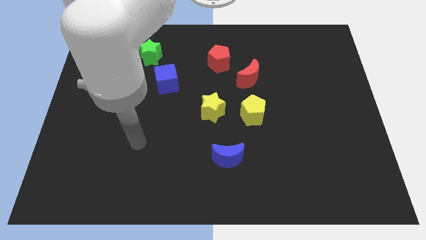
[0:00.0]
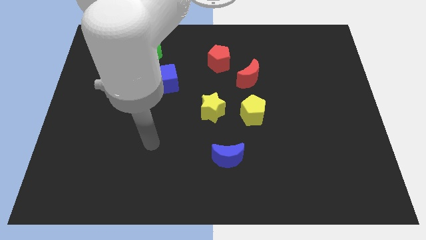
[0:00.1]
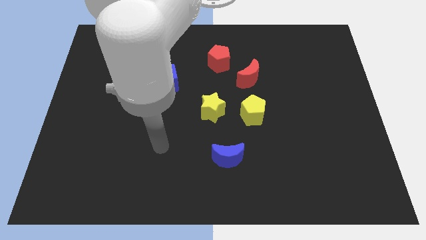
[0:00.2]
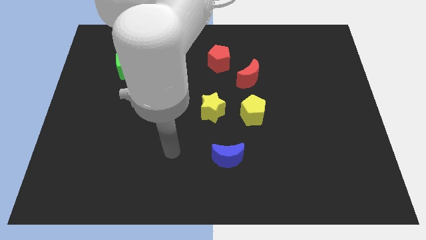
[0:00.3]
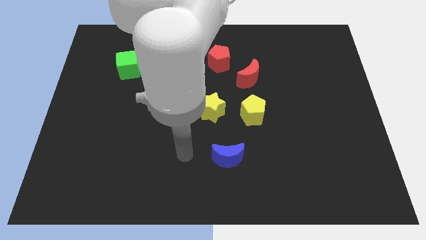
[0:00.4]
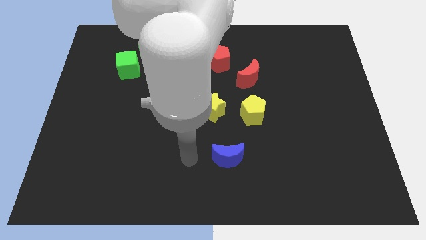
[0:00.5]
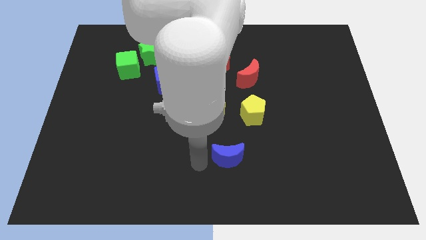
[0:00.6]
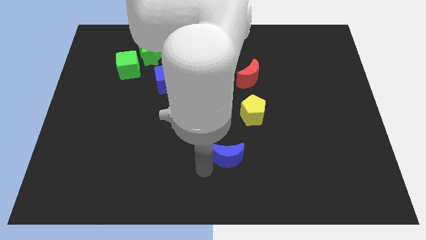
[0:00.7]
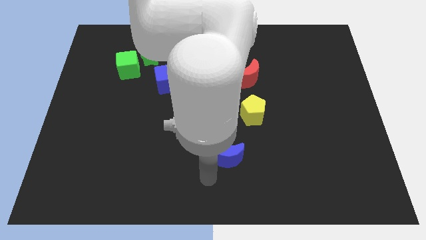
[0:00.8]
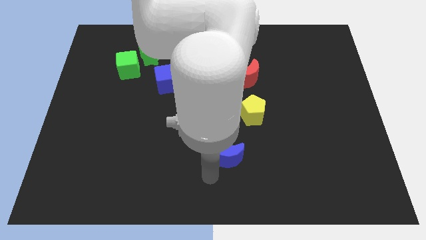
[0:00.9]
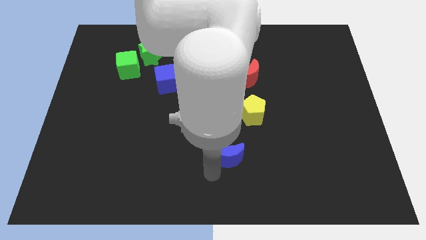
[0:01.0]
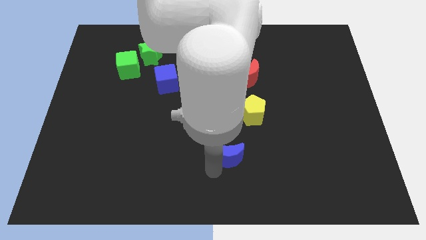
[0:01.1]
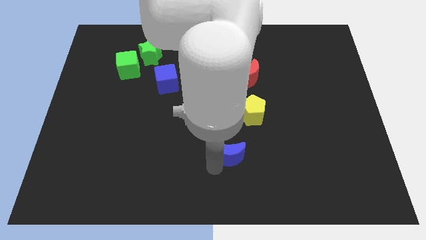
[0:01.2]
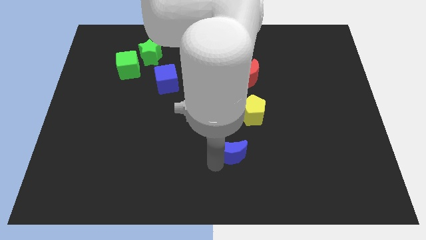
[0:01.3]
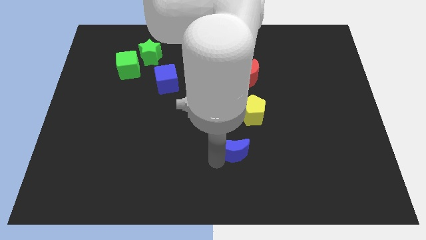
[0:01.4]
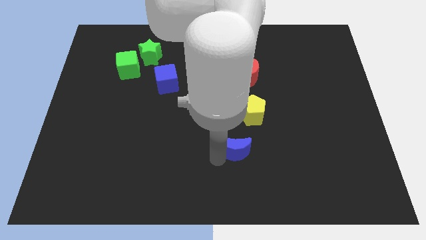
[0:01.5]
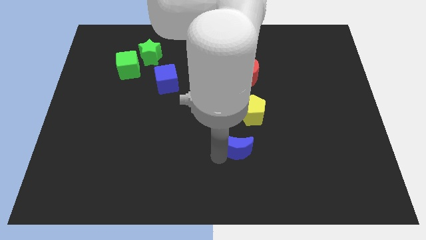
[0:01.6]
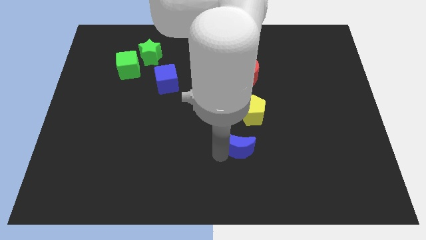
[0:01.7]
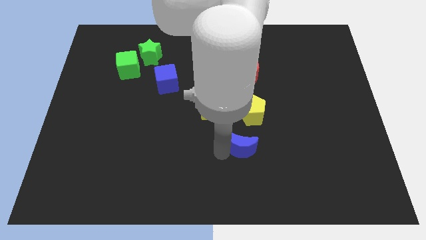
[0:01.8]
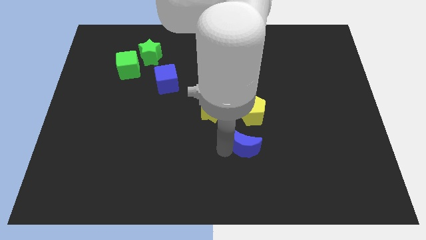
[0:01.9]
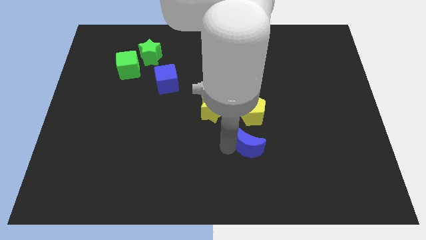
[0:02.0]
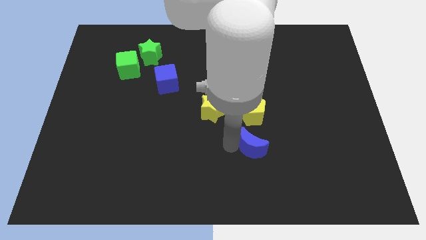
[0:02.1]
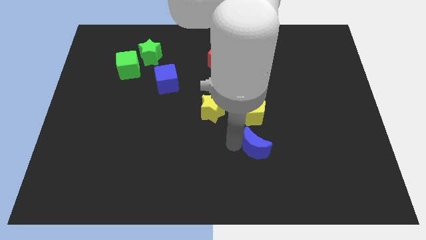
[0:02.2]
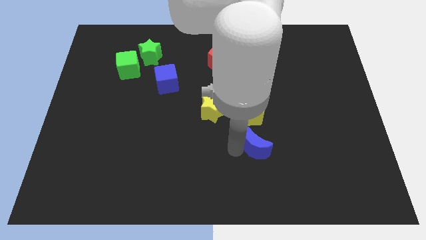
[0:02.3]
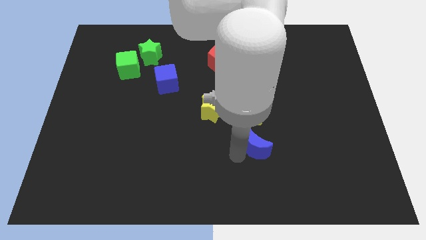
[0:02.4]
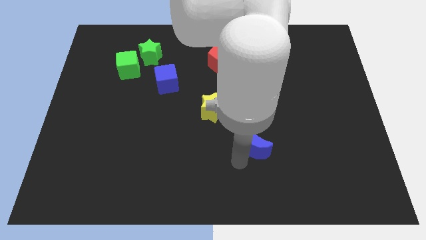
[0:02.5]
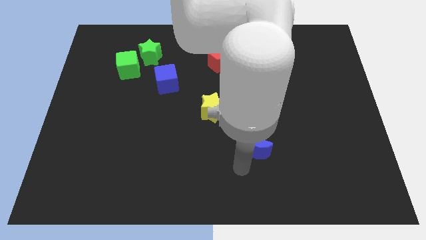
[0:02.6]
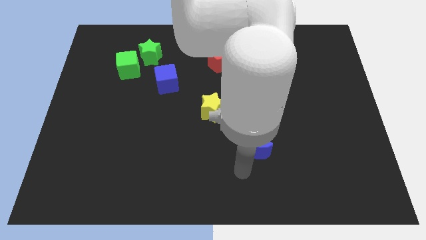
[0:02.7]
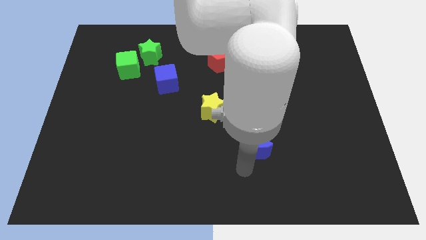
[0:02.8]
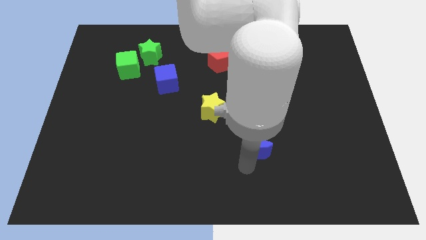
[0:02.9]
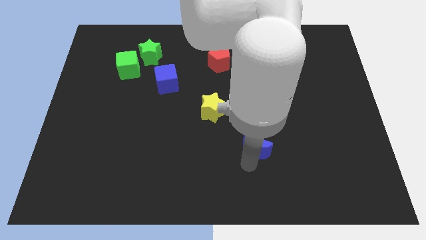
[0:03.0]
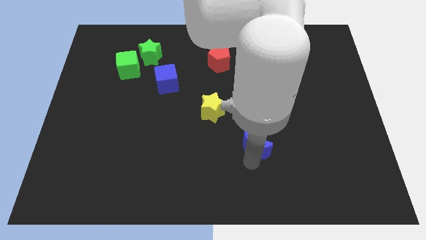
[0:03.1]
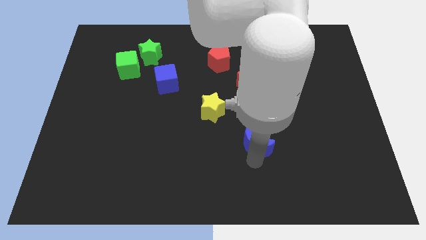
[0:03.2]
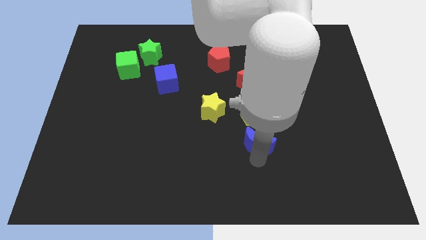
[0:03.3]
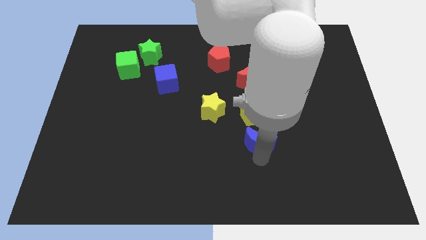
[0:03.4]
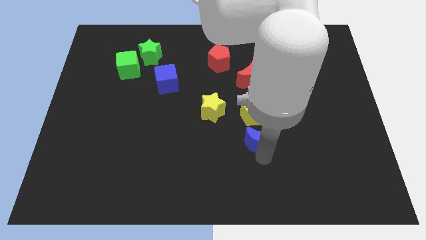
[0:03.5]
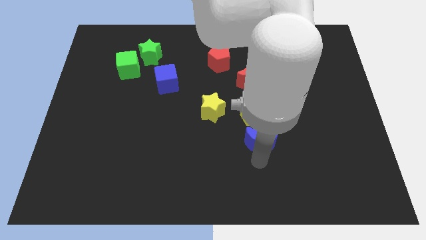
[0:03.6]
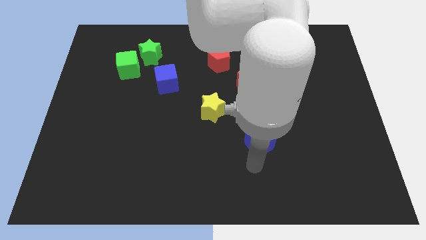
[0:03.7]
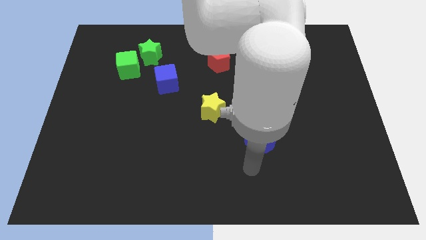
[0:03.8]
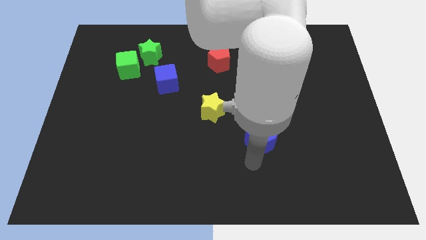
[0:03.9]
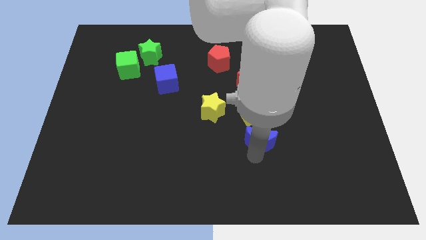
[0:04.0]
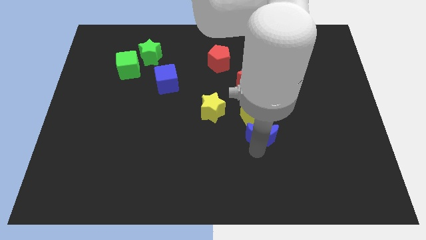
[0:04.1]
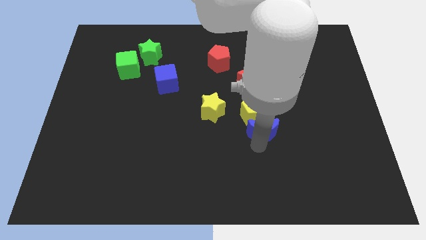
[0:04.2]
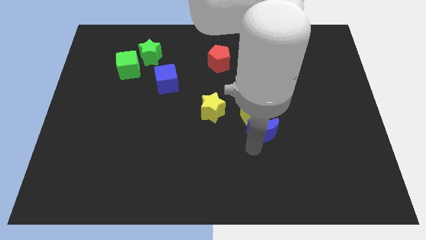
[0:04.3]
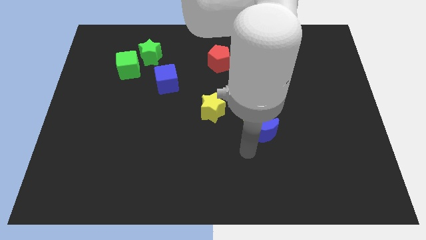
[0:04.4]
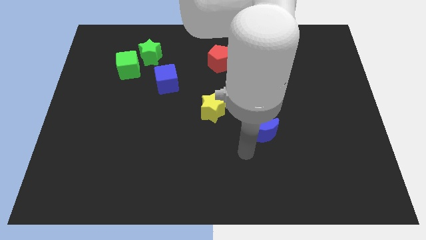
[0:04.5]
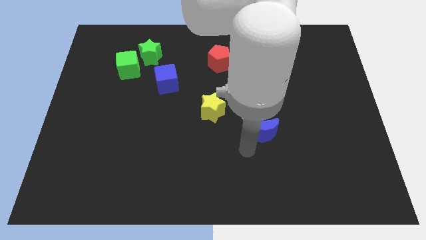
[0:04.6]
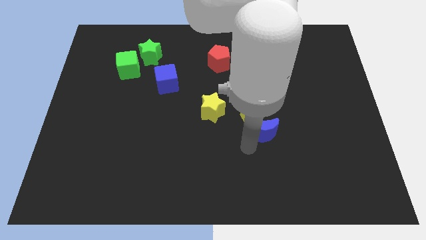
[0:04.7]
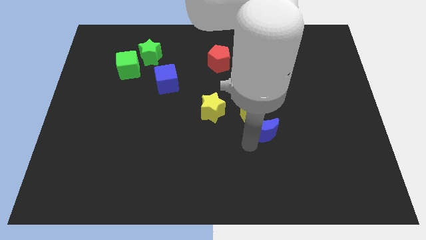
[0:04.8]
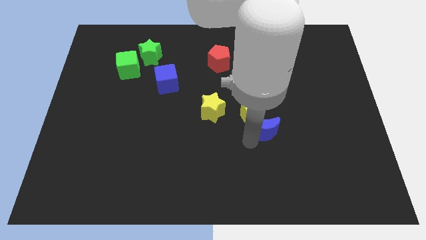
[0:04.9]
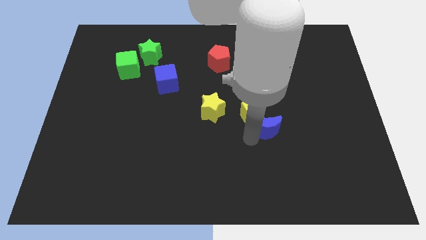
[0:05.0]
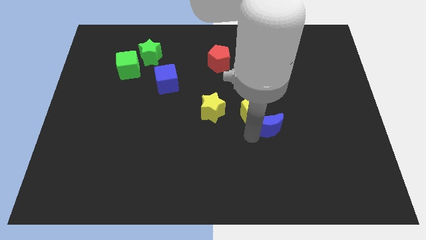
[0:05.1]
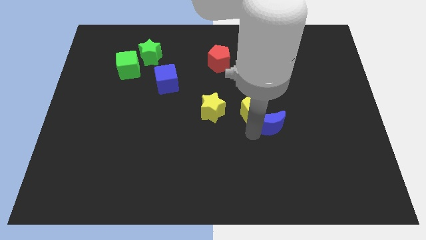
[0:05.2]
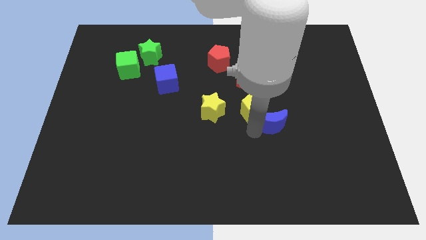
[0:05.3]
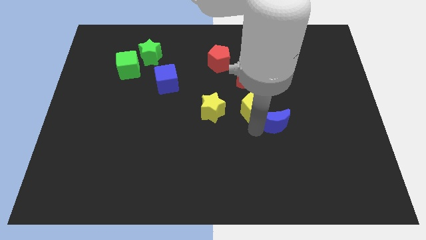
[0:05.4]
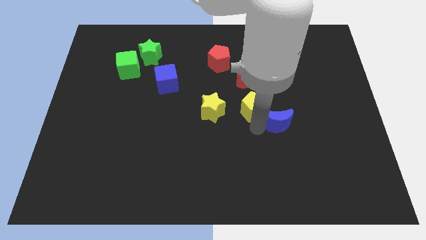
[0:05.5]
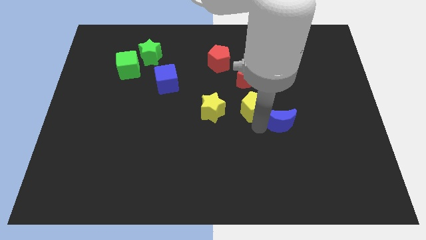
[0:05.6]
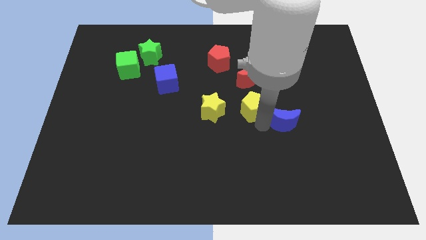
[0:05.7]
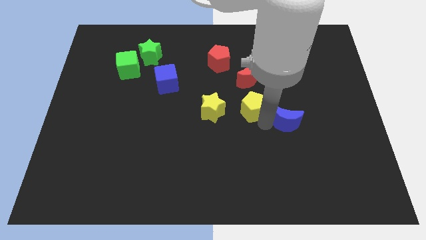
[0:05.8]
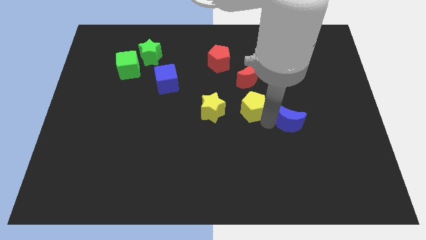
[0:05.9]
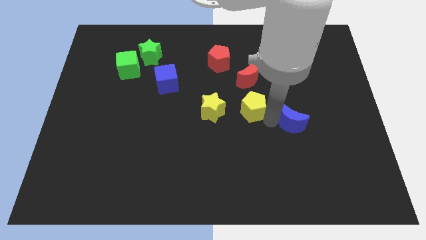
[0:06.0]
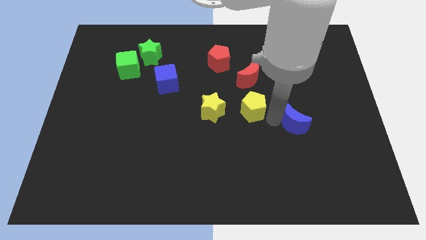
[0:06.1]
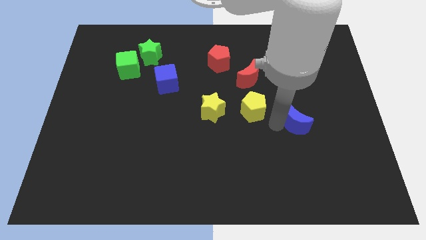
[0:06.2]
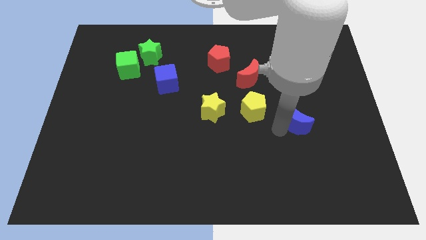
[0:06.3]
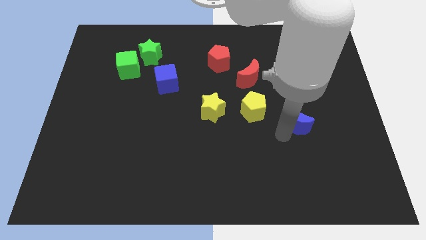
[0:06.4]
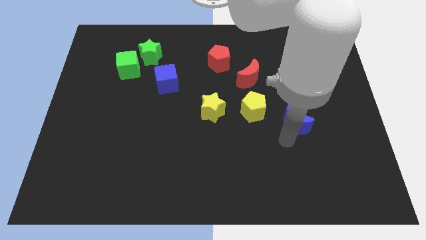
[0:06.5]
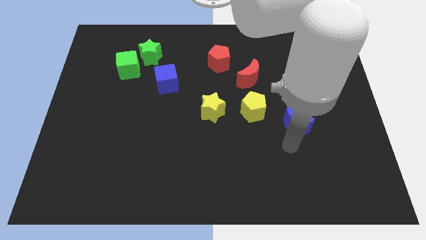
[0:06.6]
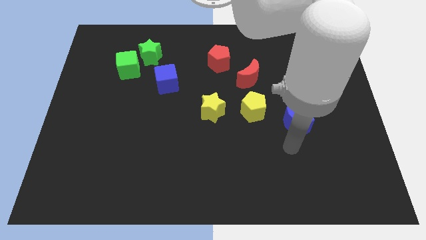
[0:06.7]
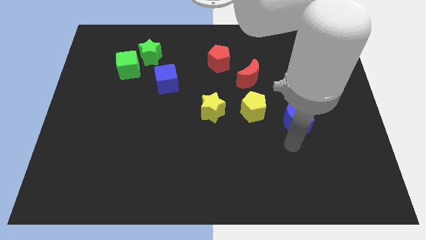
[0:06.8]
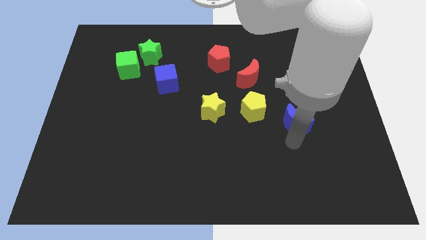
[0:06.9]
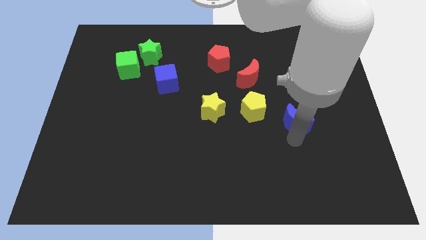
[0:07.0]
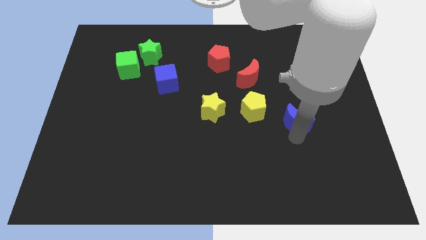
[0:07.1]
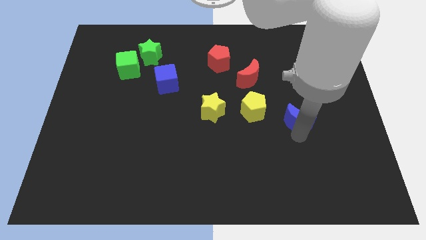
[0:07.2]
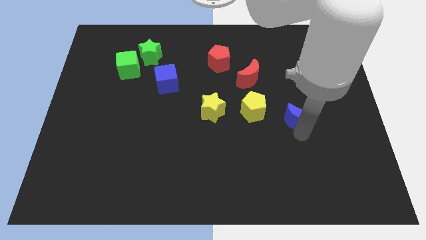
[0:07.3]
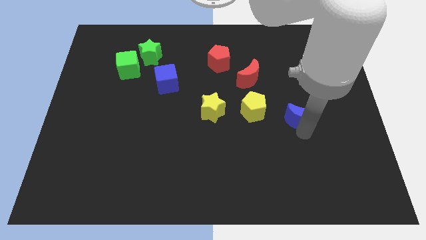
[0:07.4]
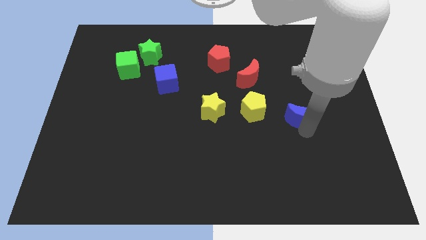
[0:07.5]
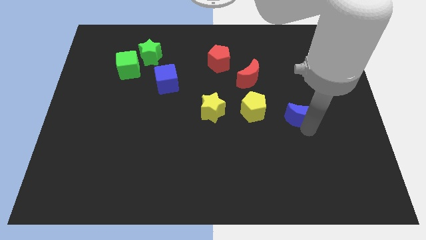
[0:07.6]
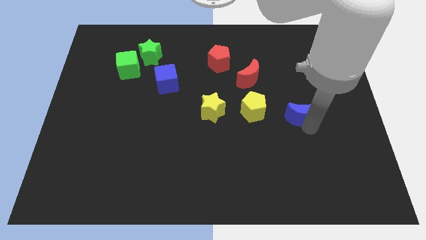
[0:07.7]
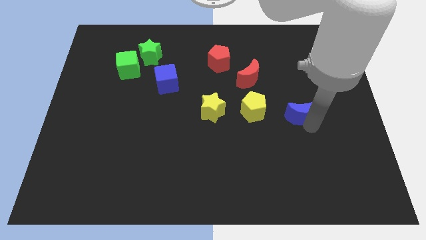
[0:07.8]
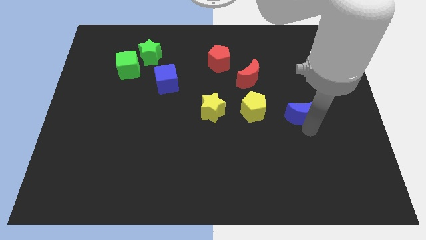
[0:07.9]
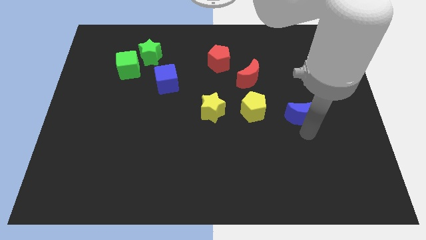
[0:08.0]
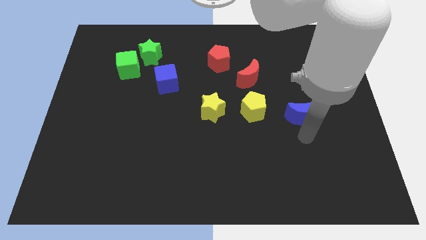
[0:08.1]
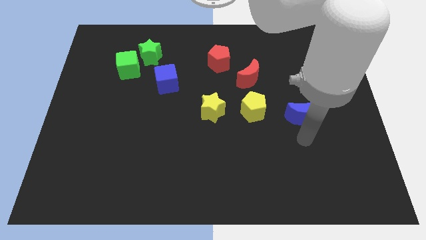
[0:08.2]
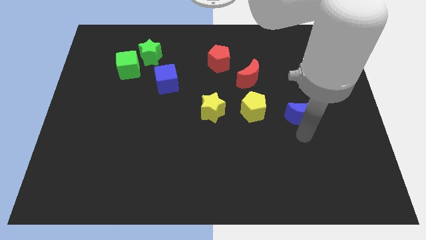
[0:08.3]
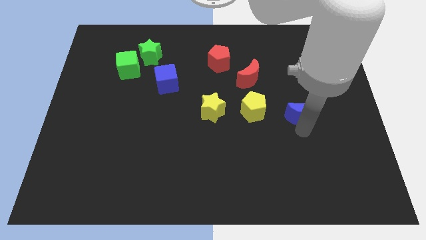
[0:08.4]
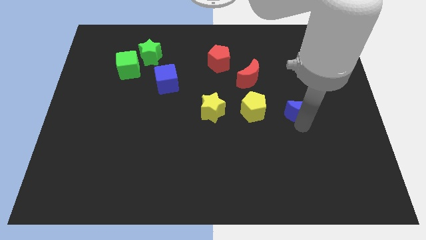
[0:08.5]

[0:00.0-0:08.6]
move the blue moon upwards and then right
